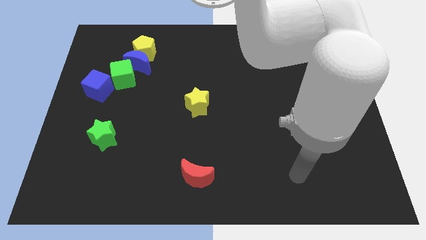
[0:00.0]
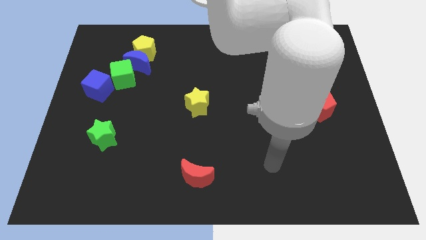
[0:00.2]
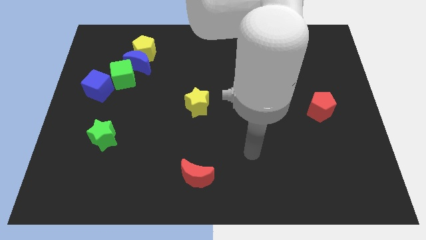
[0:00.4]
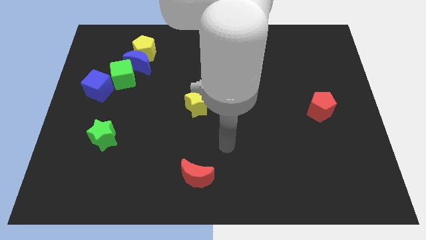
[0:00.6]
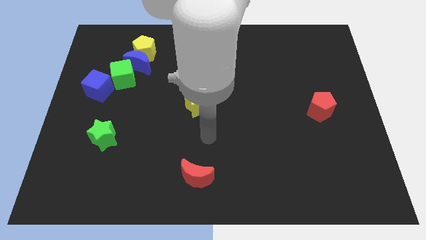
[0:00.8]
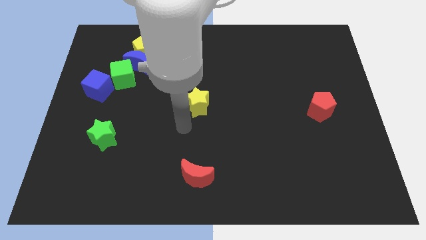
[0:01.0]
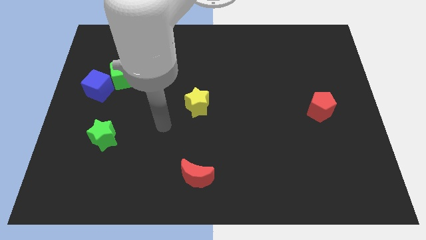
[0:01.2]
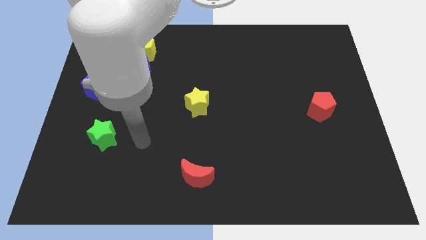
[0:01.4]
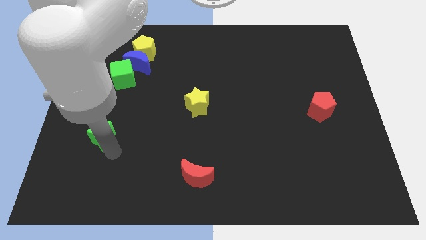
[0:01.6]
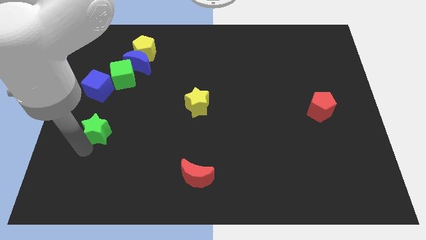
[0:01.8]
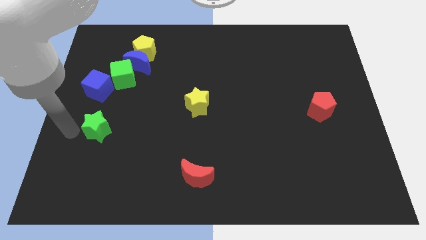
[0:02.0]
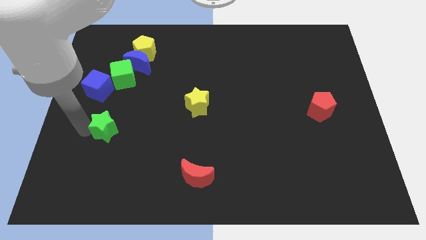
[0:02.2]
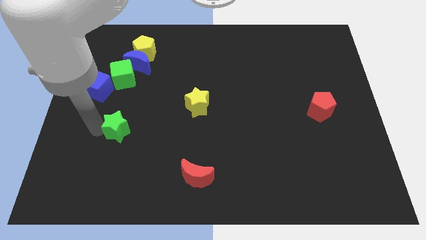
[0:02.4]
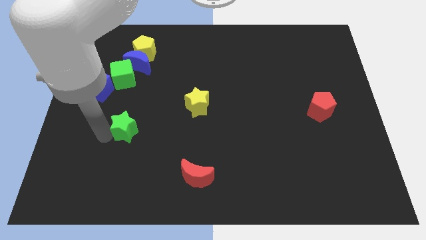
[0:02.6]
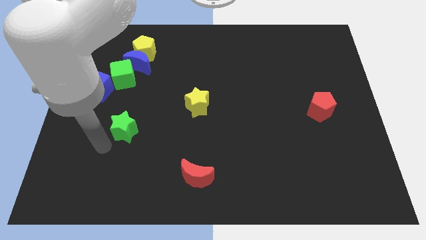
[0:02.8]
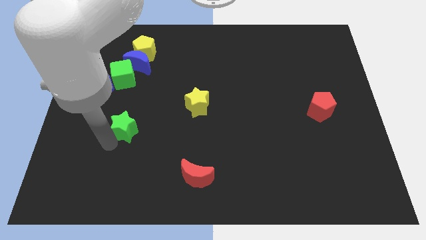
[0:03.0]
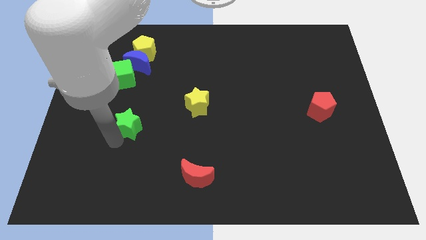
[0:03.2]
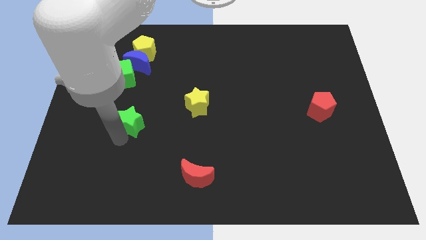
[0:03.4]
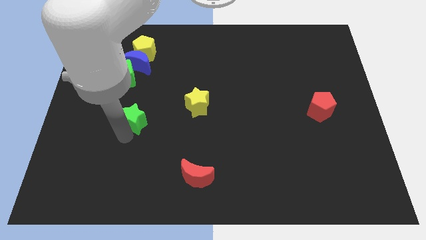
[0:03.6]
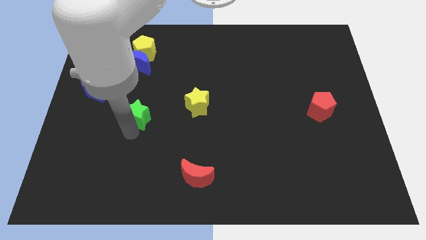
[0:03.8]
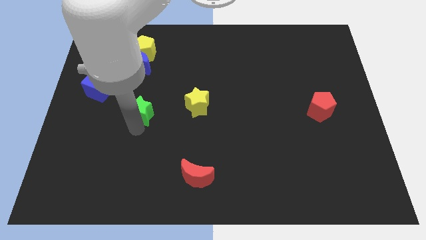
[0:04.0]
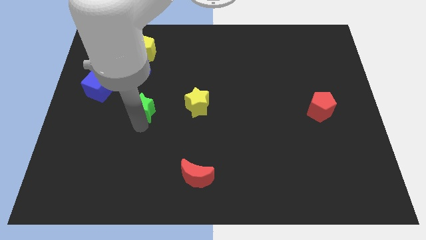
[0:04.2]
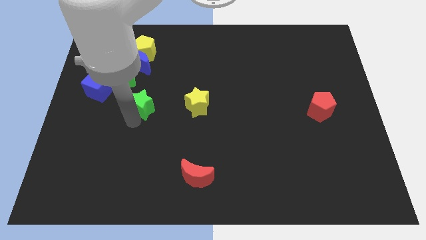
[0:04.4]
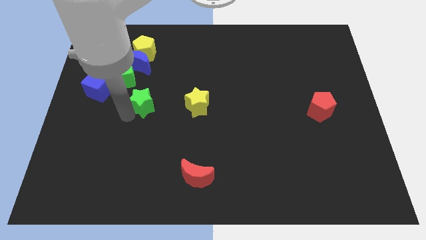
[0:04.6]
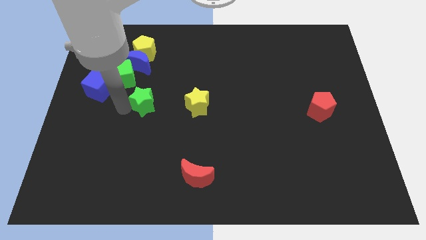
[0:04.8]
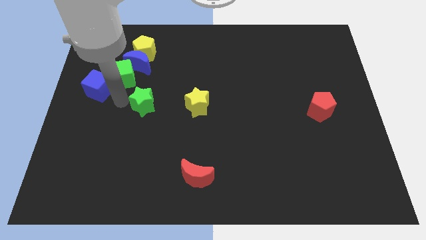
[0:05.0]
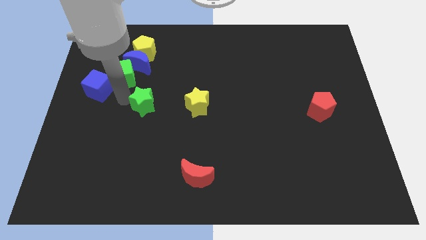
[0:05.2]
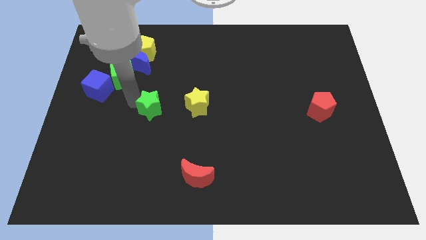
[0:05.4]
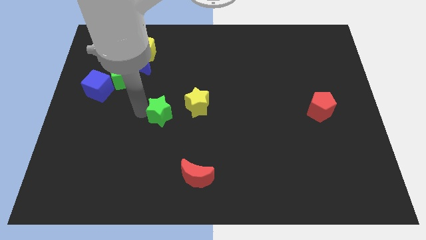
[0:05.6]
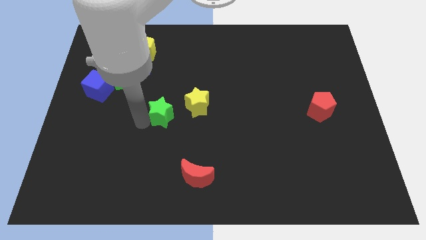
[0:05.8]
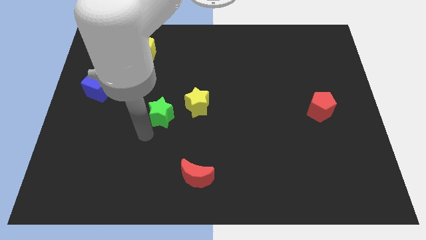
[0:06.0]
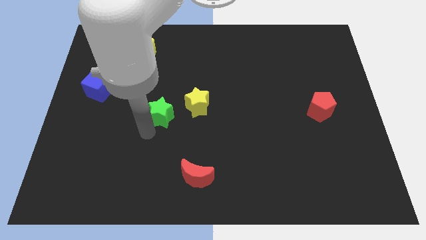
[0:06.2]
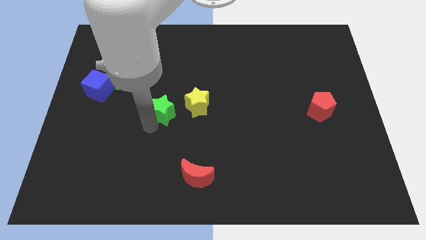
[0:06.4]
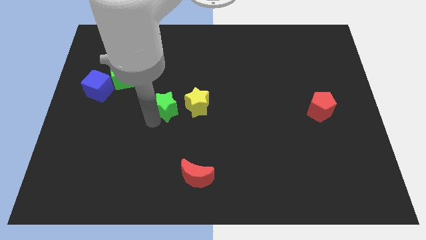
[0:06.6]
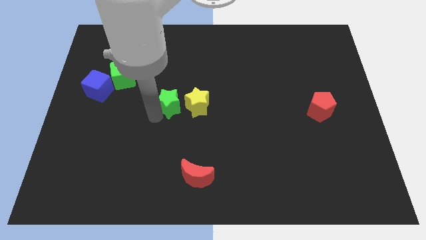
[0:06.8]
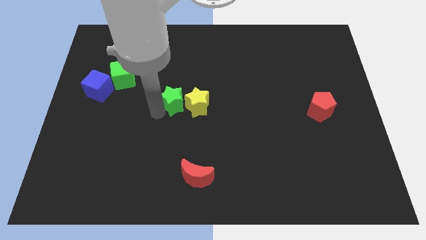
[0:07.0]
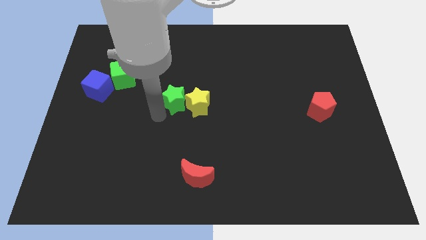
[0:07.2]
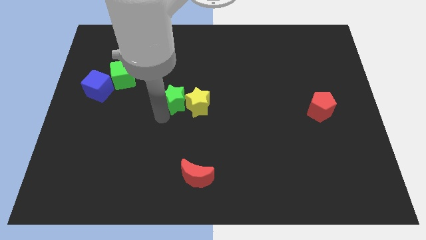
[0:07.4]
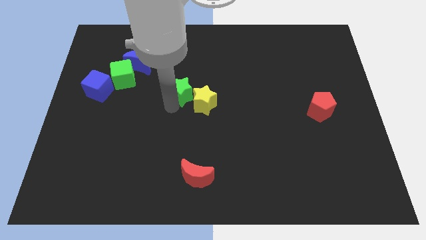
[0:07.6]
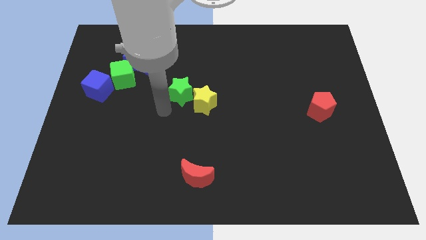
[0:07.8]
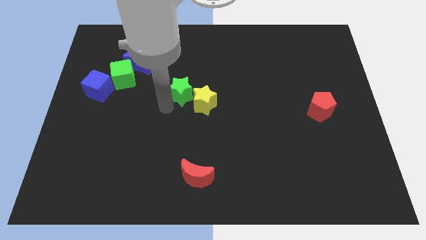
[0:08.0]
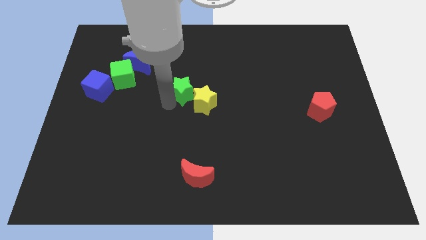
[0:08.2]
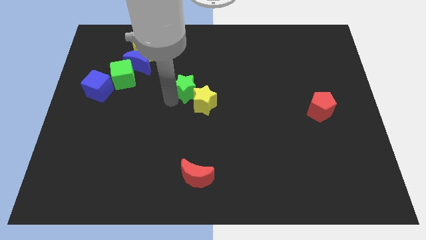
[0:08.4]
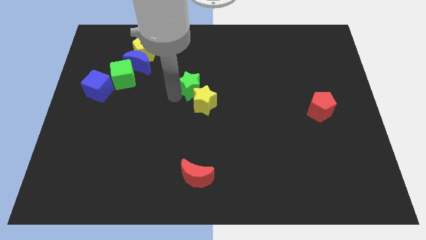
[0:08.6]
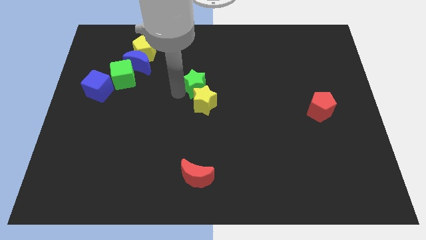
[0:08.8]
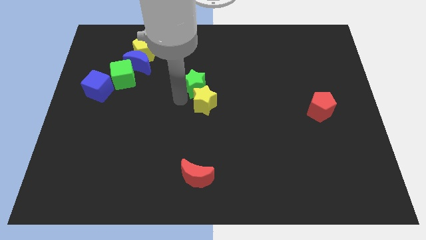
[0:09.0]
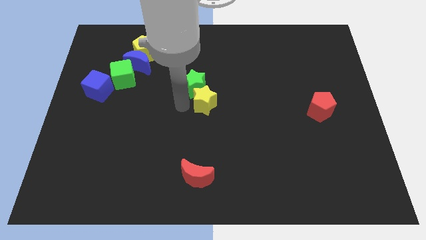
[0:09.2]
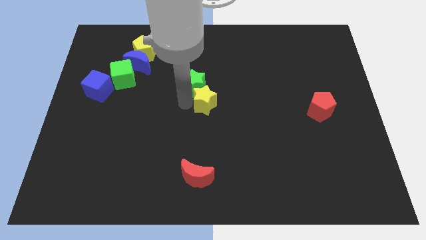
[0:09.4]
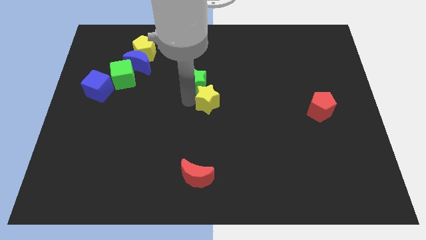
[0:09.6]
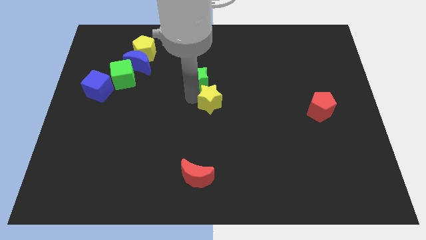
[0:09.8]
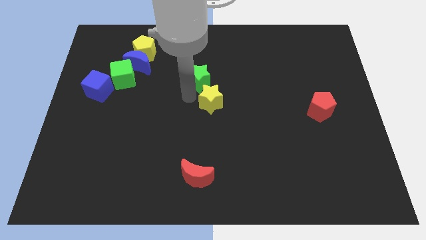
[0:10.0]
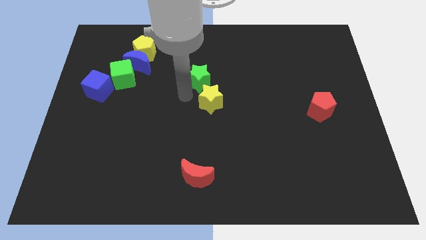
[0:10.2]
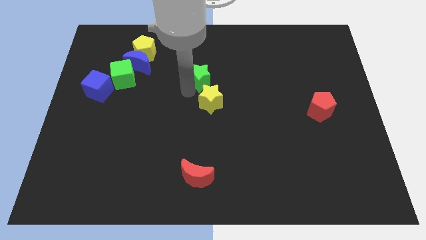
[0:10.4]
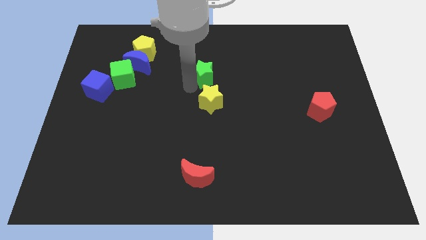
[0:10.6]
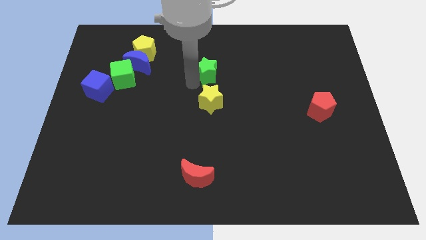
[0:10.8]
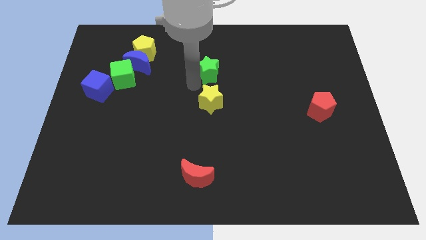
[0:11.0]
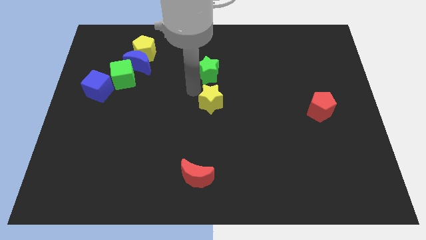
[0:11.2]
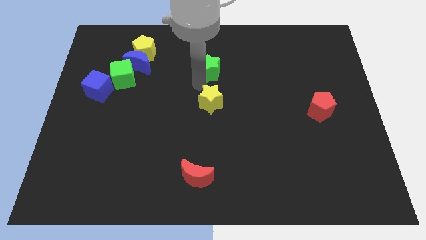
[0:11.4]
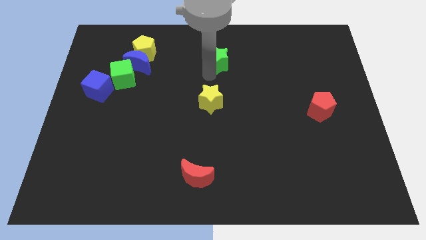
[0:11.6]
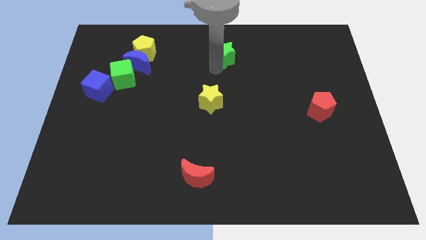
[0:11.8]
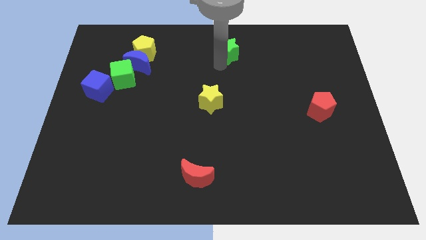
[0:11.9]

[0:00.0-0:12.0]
slide the green star to the towards your base

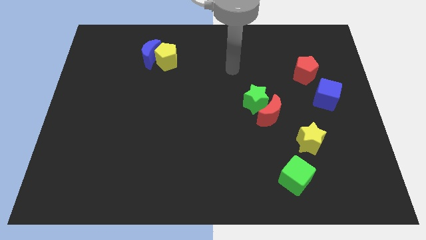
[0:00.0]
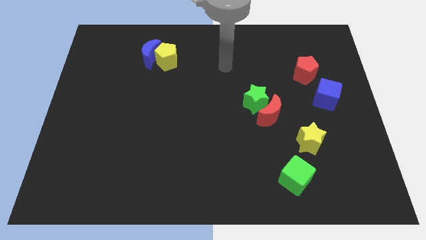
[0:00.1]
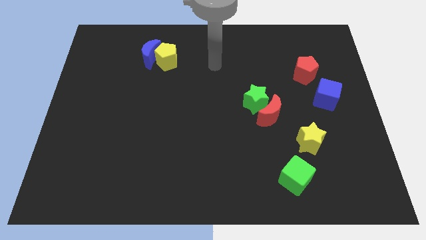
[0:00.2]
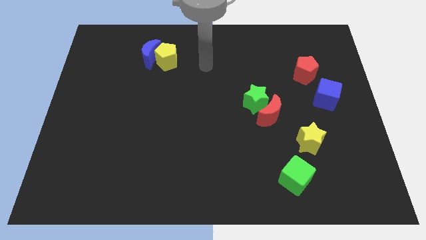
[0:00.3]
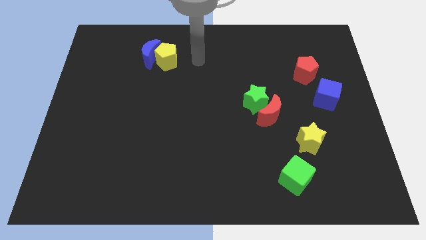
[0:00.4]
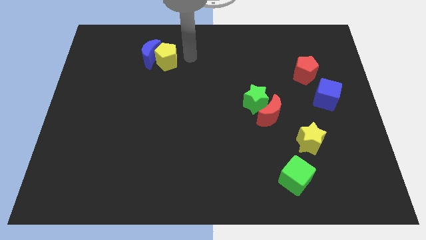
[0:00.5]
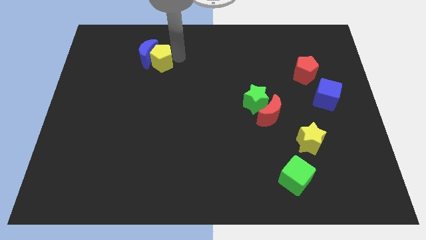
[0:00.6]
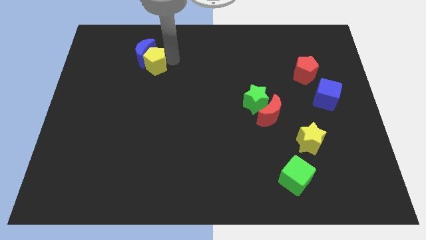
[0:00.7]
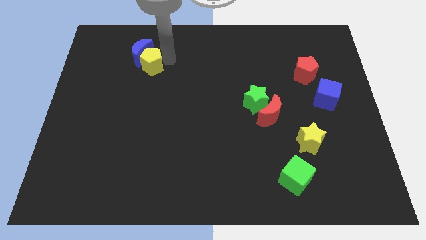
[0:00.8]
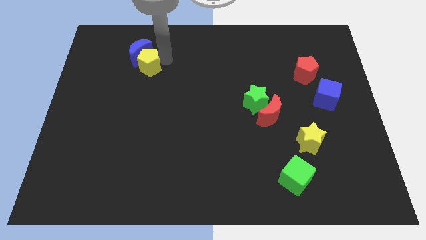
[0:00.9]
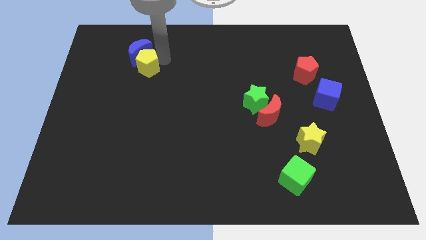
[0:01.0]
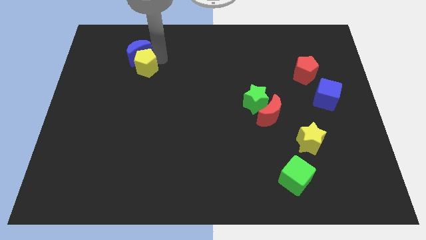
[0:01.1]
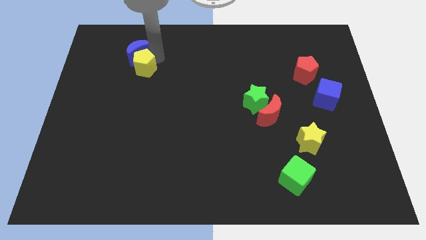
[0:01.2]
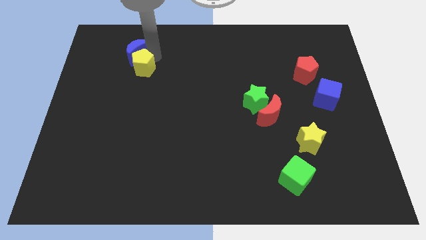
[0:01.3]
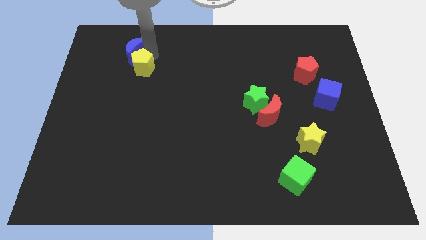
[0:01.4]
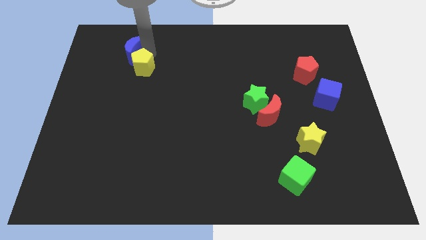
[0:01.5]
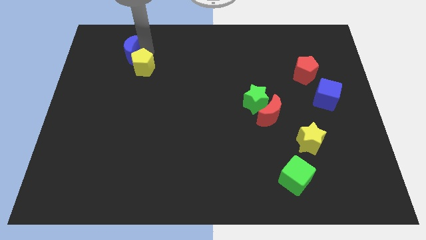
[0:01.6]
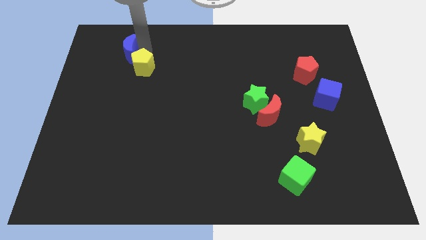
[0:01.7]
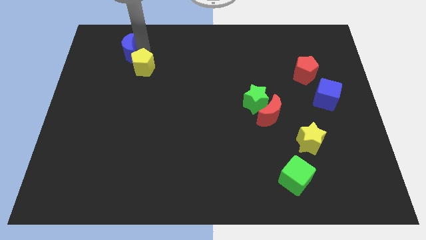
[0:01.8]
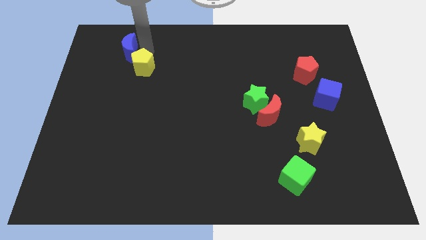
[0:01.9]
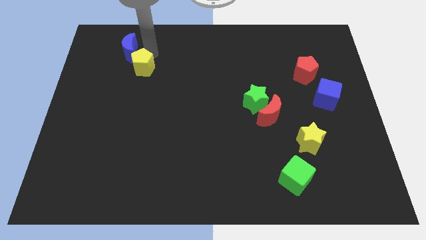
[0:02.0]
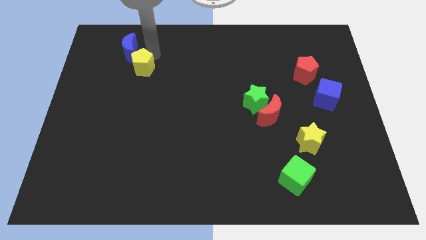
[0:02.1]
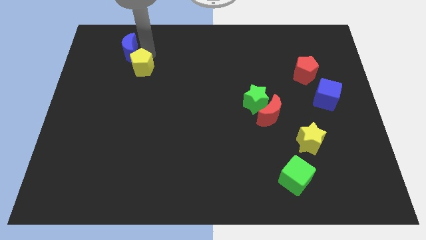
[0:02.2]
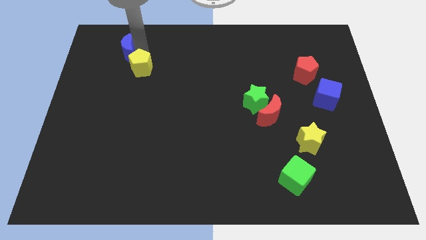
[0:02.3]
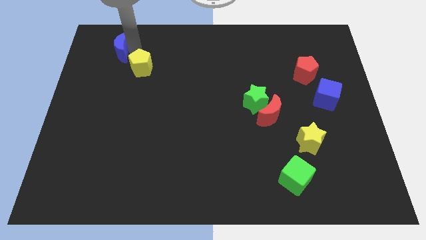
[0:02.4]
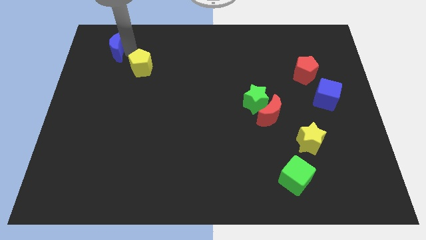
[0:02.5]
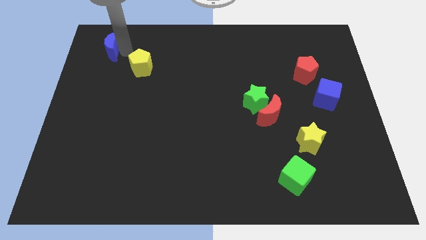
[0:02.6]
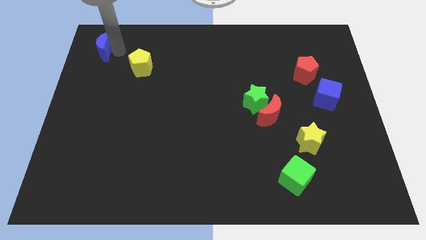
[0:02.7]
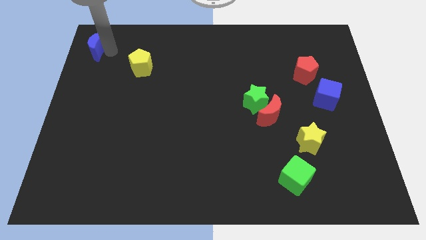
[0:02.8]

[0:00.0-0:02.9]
move the blue moon to the upper left corner
